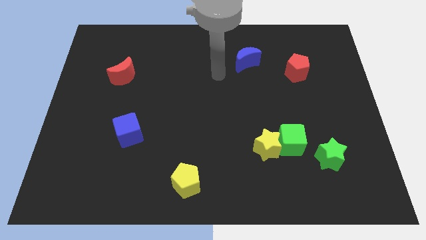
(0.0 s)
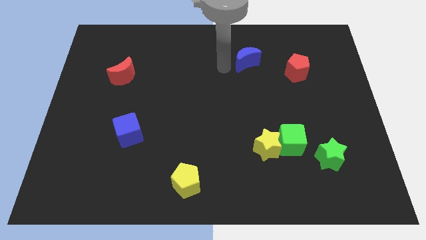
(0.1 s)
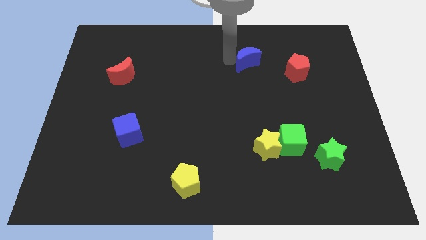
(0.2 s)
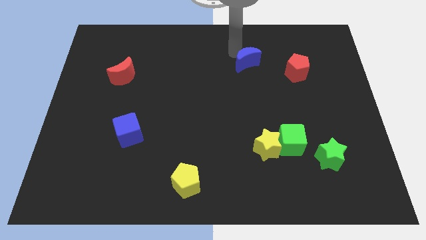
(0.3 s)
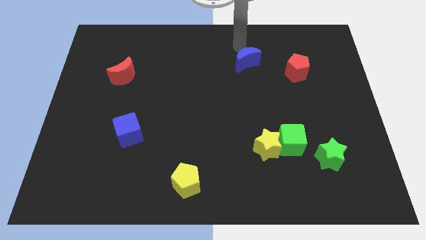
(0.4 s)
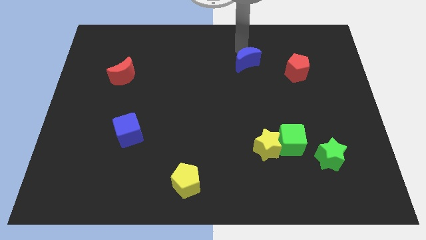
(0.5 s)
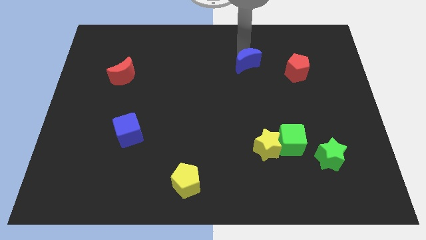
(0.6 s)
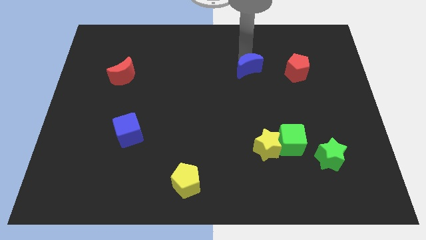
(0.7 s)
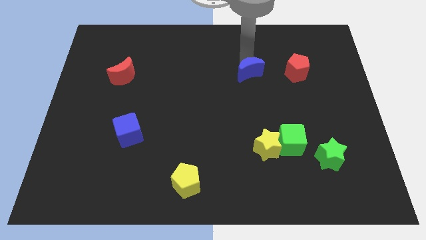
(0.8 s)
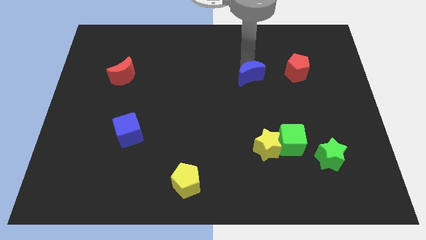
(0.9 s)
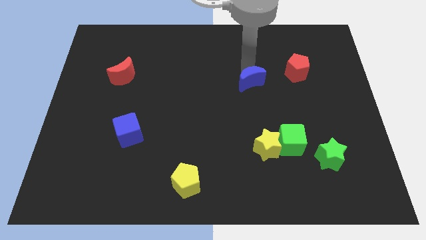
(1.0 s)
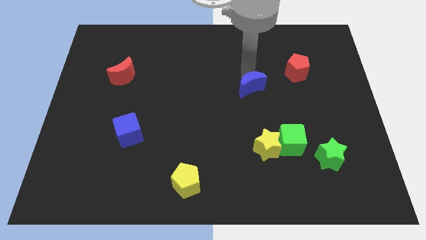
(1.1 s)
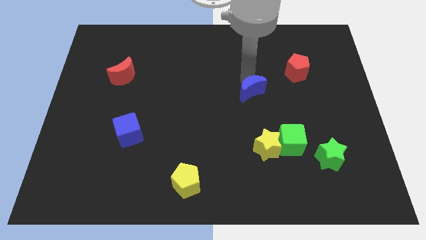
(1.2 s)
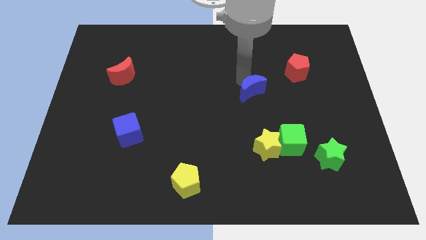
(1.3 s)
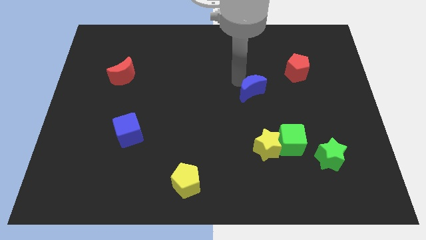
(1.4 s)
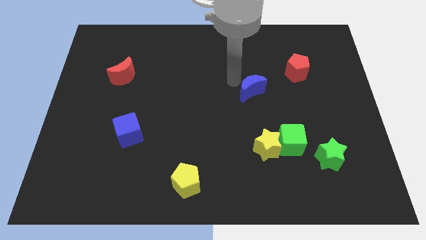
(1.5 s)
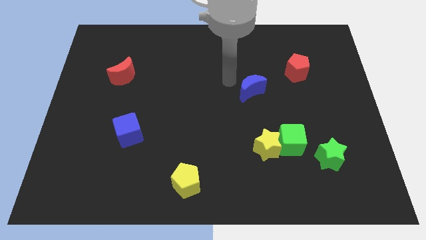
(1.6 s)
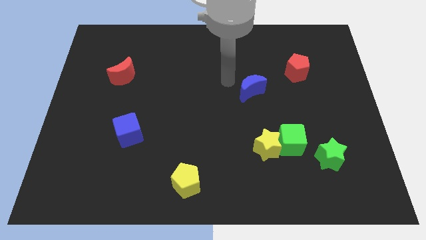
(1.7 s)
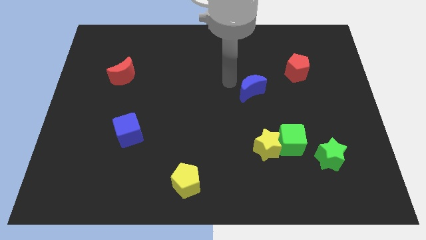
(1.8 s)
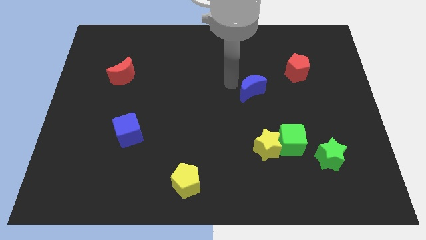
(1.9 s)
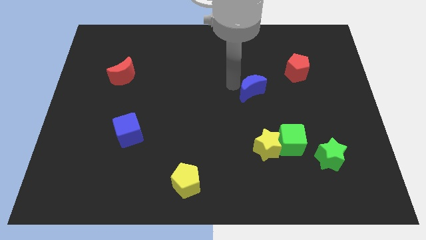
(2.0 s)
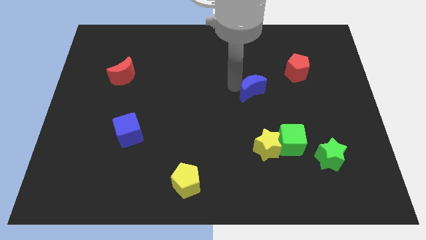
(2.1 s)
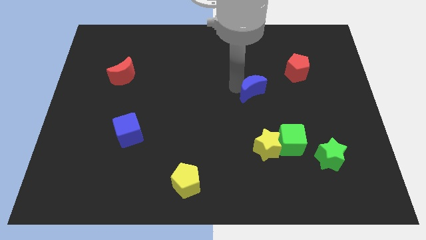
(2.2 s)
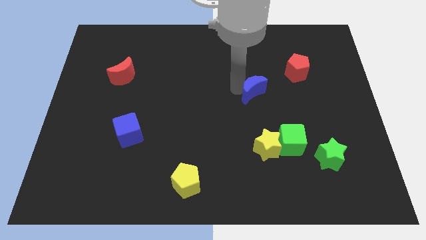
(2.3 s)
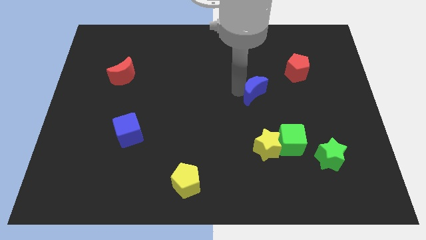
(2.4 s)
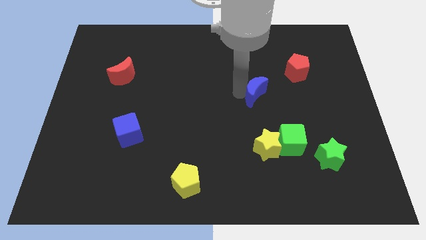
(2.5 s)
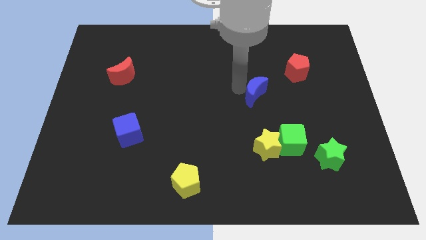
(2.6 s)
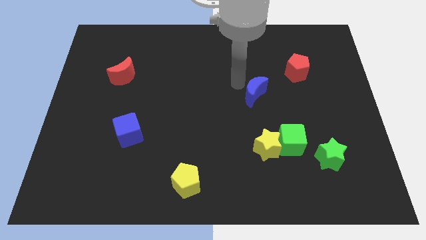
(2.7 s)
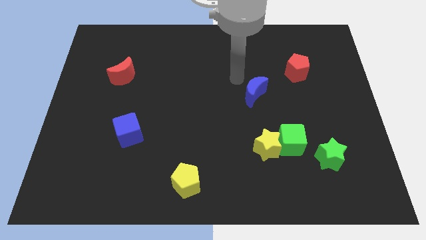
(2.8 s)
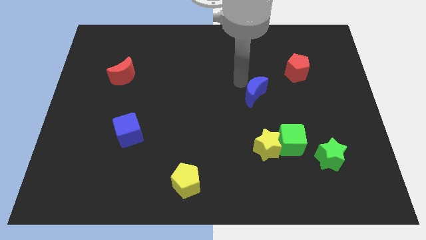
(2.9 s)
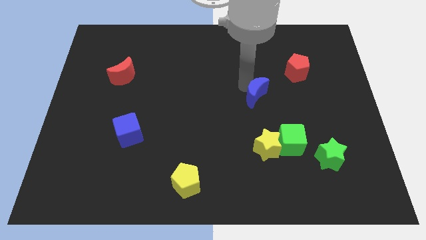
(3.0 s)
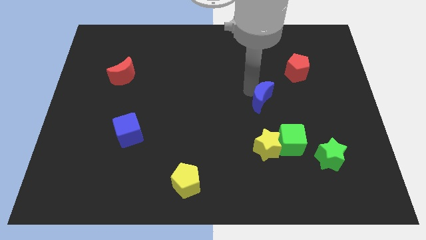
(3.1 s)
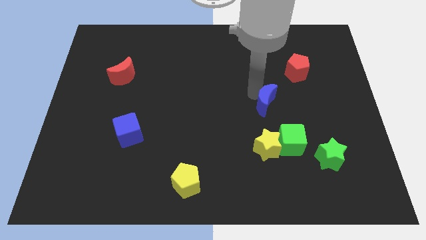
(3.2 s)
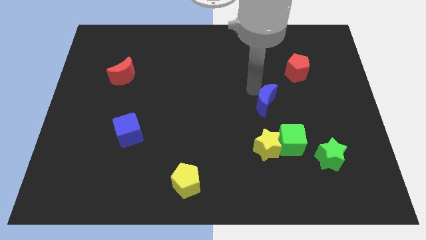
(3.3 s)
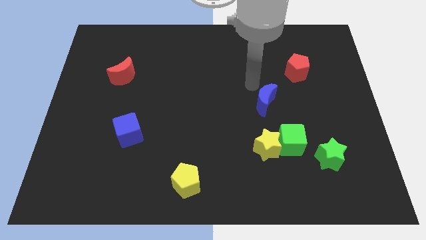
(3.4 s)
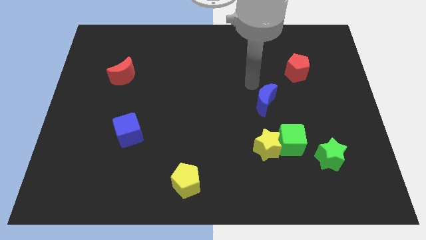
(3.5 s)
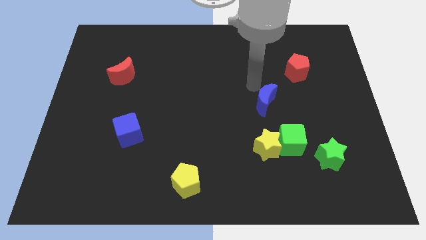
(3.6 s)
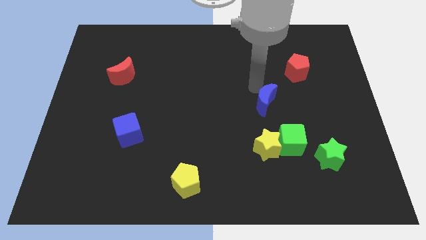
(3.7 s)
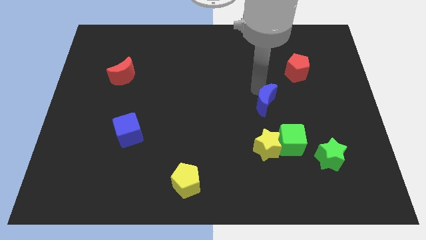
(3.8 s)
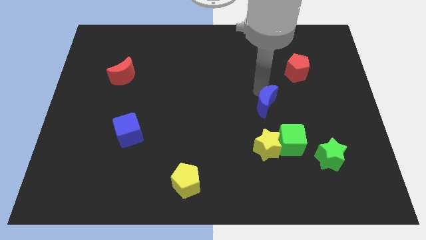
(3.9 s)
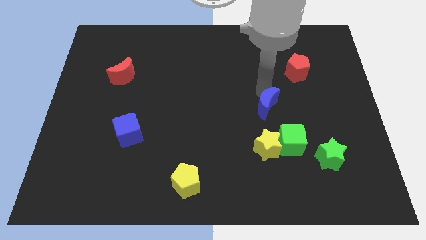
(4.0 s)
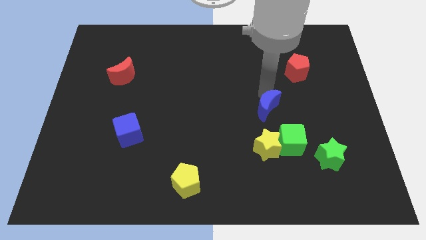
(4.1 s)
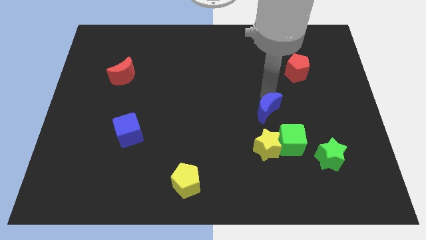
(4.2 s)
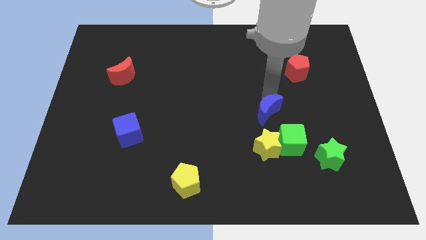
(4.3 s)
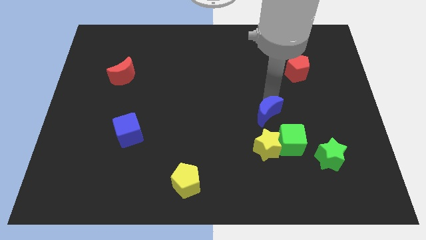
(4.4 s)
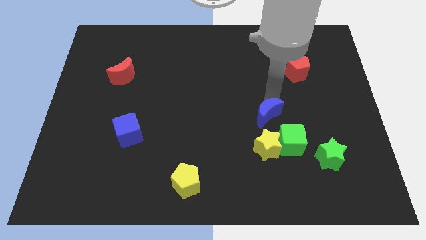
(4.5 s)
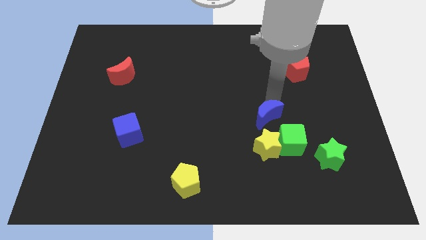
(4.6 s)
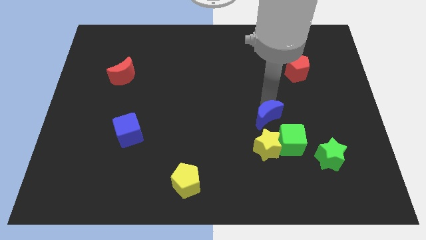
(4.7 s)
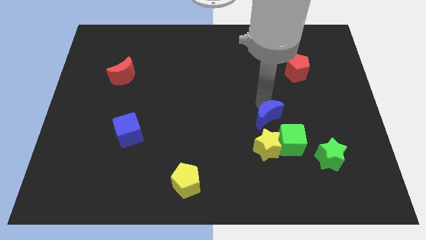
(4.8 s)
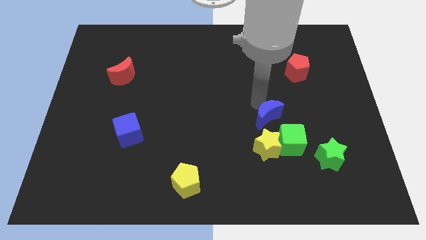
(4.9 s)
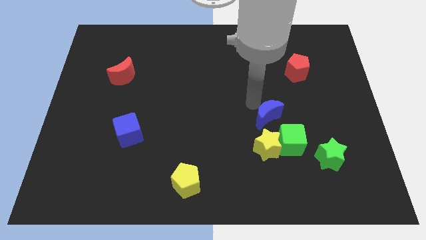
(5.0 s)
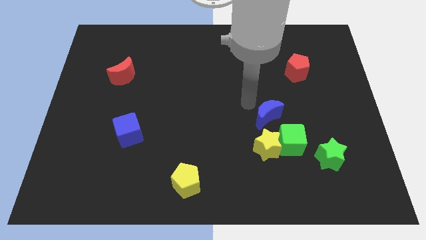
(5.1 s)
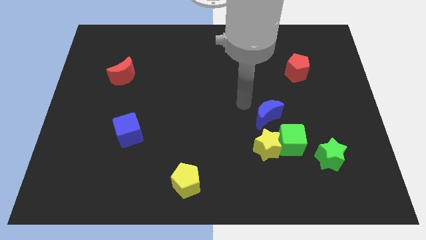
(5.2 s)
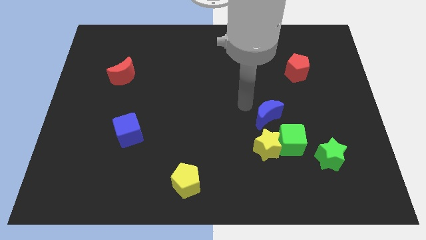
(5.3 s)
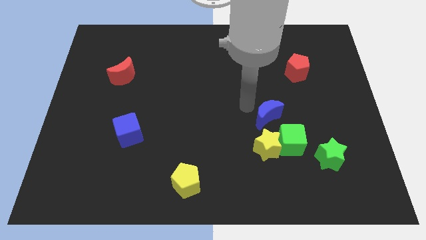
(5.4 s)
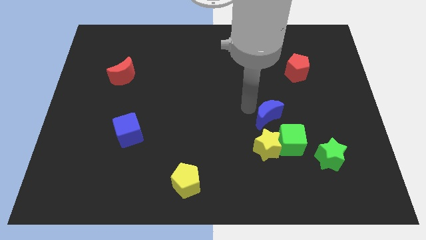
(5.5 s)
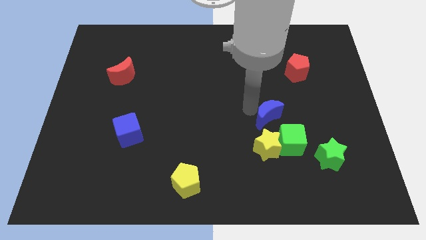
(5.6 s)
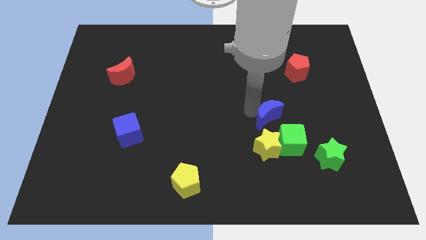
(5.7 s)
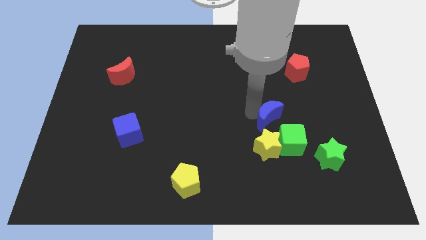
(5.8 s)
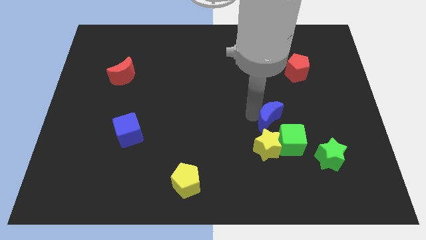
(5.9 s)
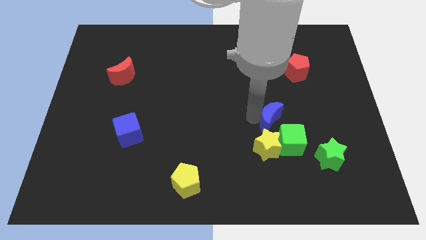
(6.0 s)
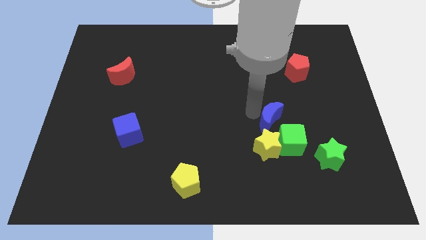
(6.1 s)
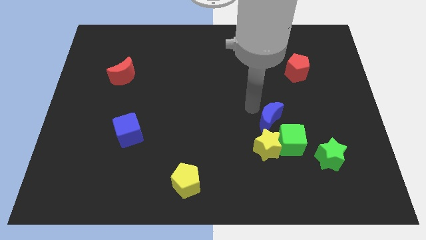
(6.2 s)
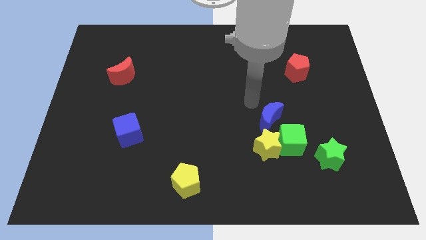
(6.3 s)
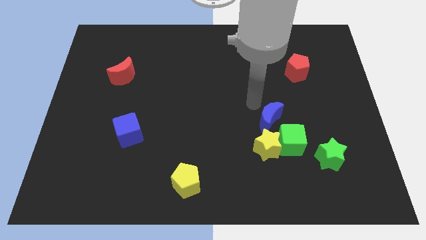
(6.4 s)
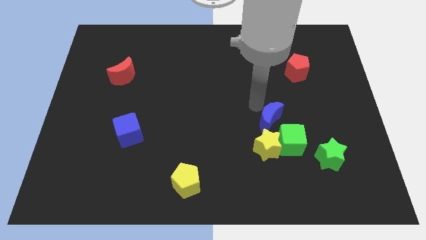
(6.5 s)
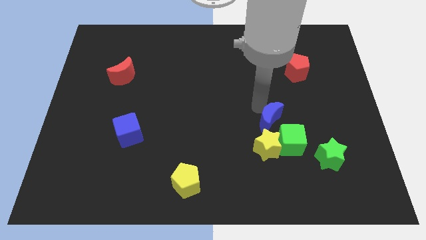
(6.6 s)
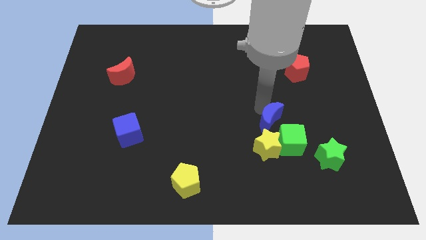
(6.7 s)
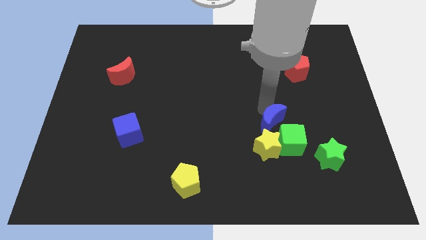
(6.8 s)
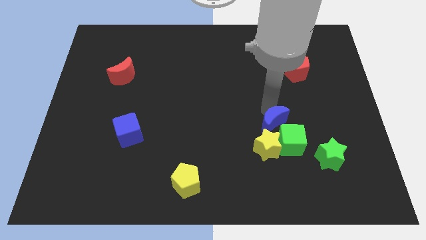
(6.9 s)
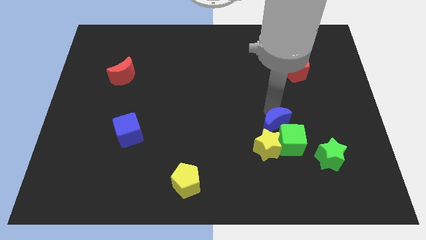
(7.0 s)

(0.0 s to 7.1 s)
push the blue moon to the green cube

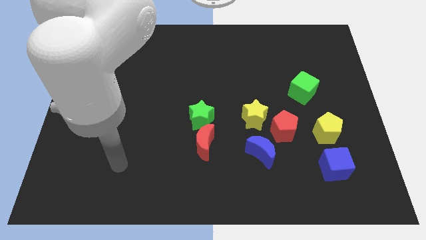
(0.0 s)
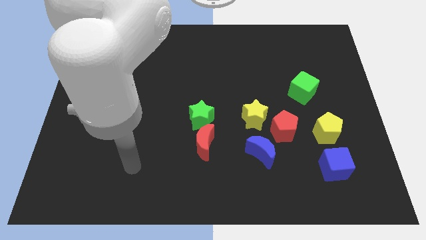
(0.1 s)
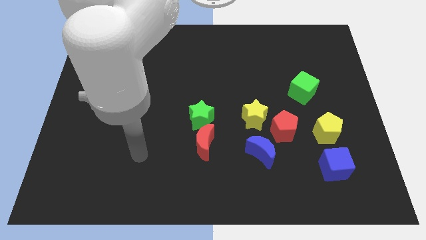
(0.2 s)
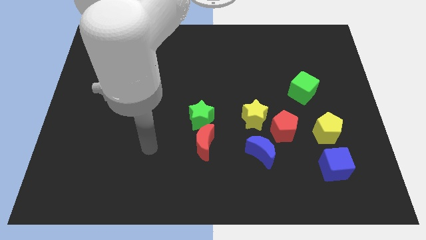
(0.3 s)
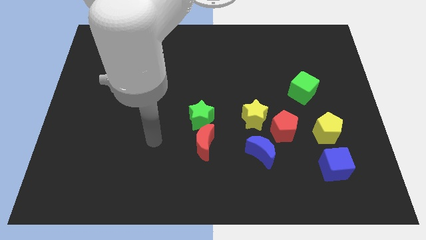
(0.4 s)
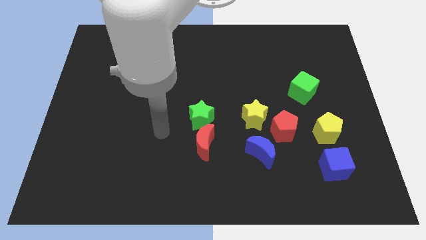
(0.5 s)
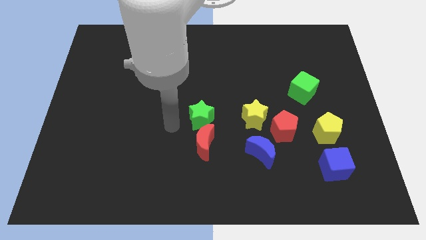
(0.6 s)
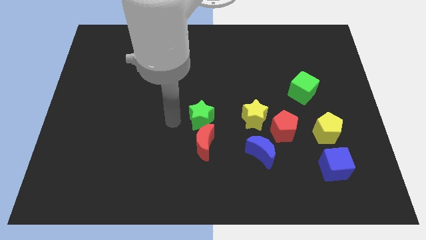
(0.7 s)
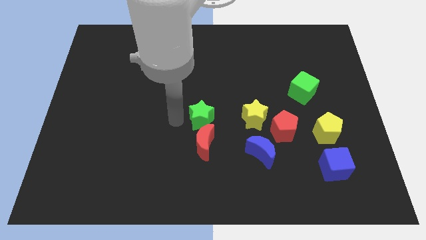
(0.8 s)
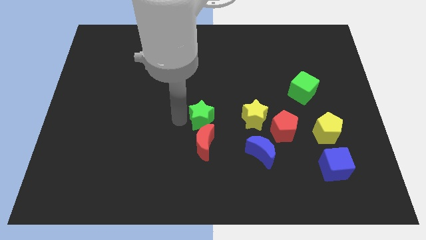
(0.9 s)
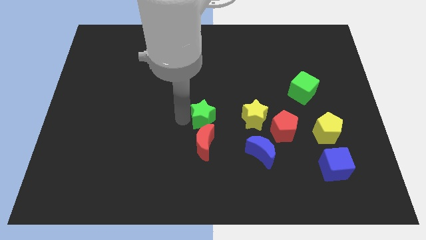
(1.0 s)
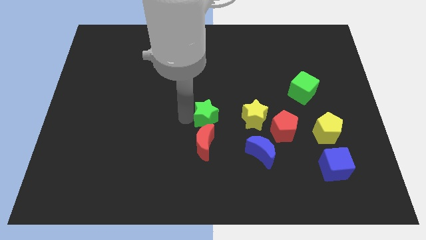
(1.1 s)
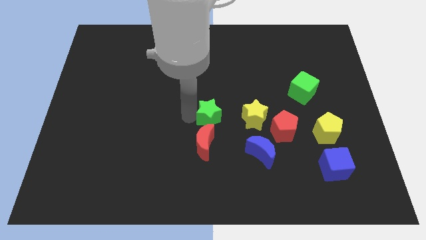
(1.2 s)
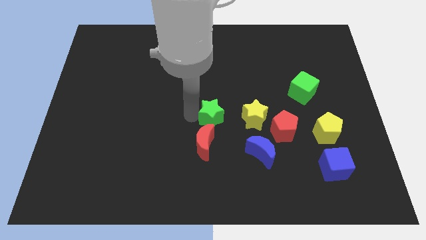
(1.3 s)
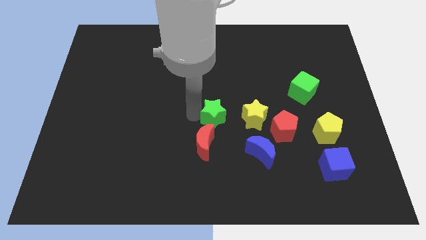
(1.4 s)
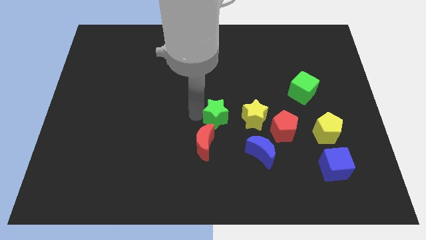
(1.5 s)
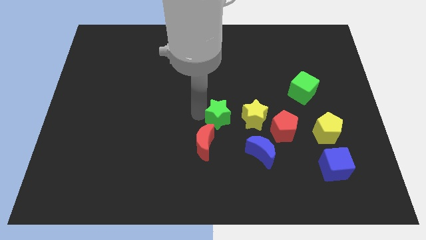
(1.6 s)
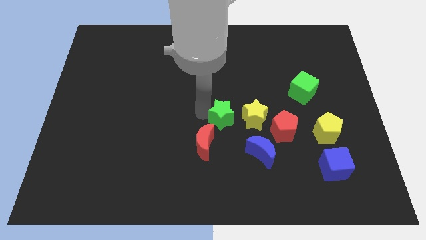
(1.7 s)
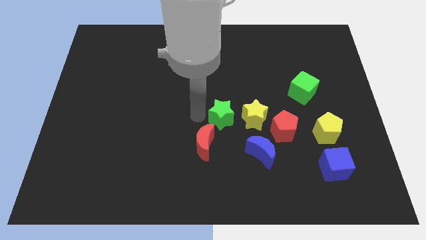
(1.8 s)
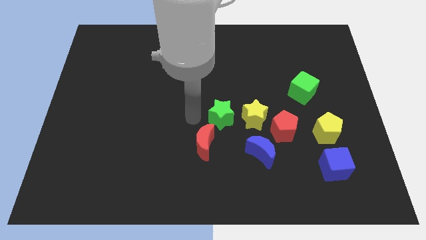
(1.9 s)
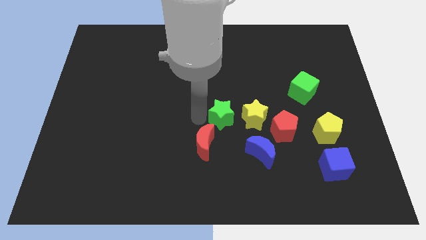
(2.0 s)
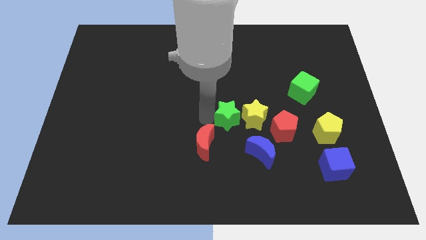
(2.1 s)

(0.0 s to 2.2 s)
put the green star towards the yellow star
